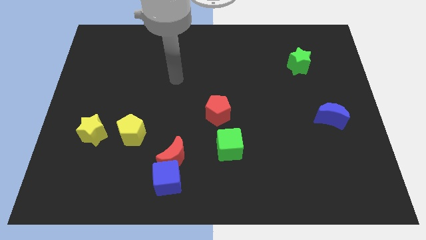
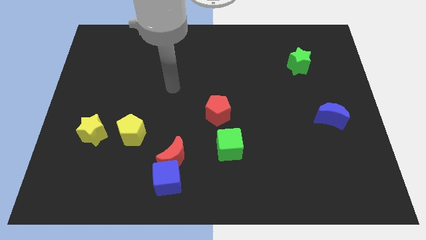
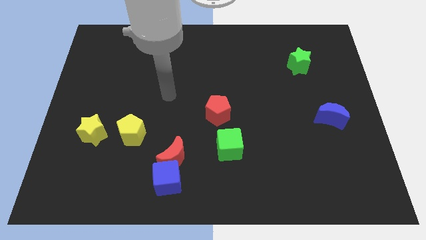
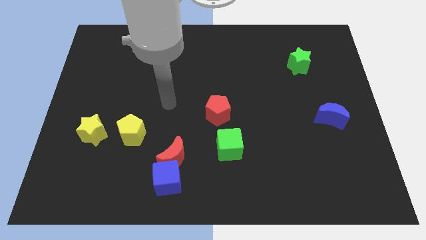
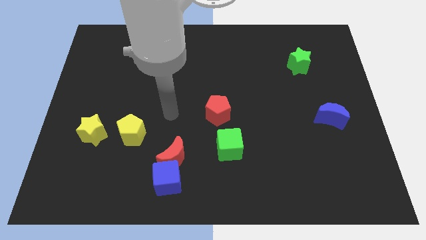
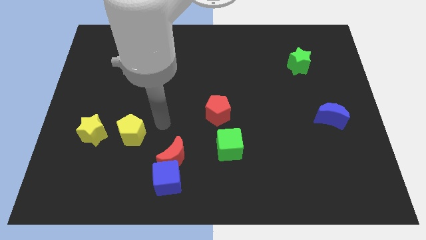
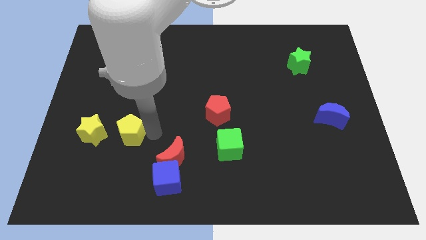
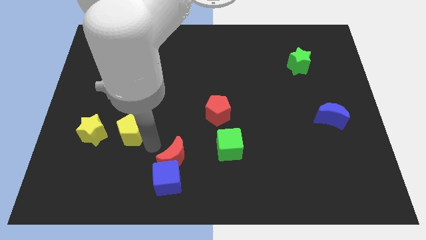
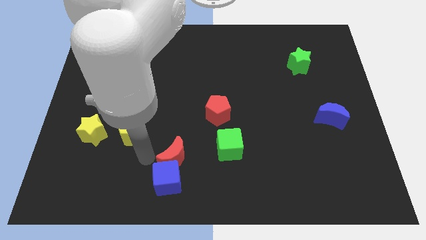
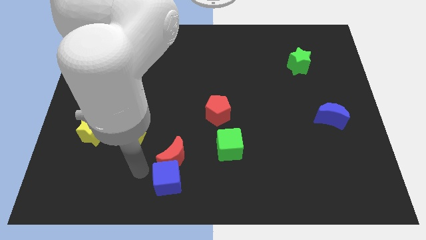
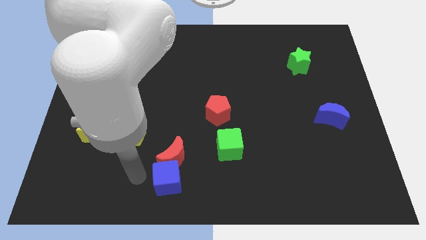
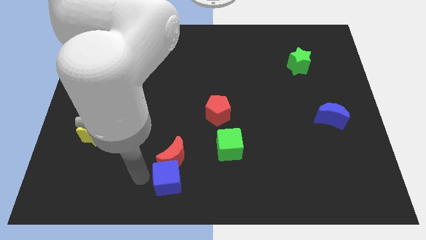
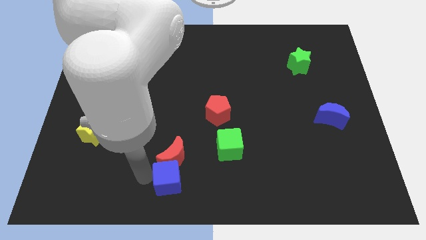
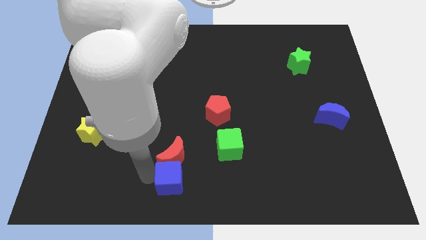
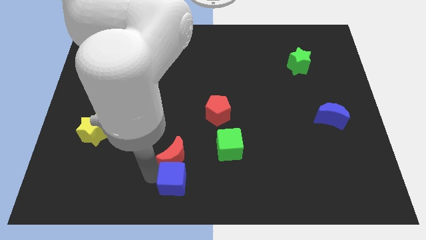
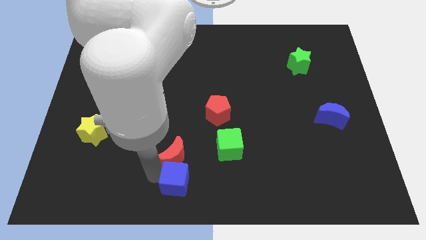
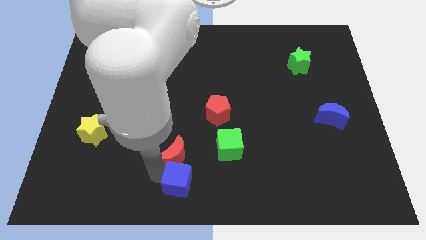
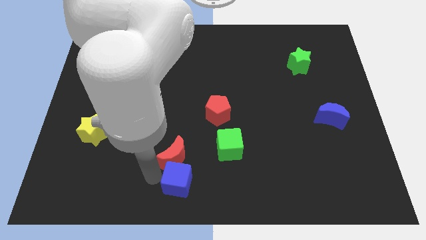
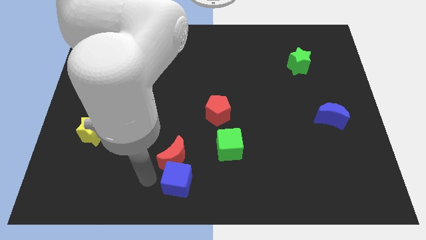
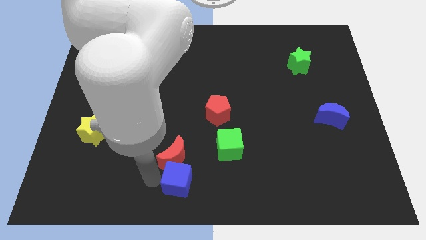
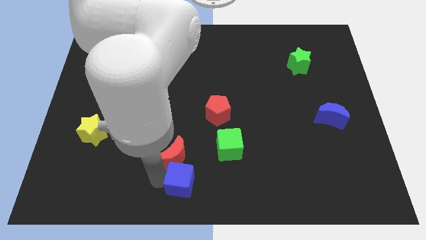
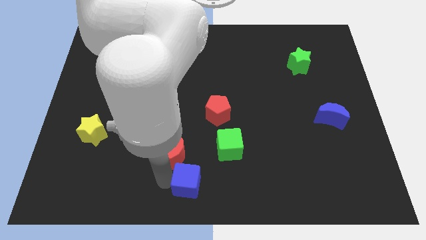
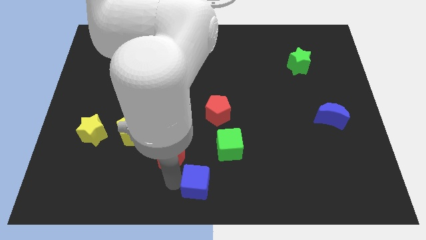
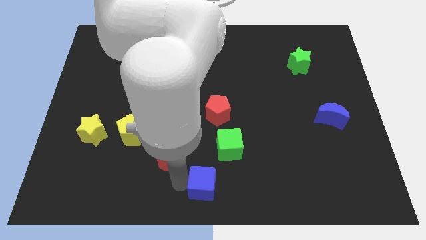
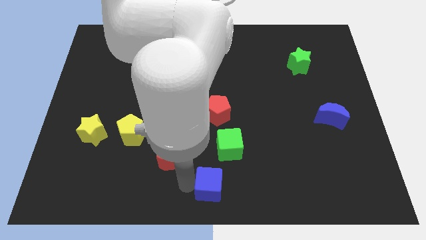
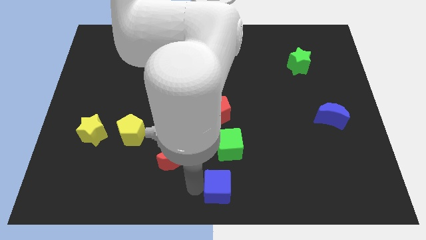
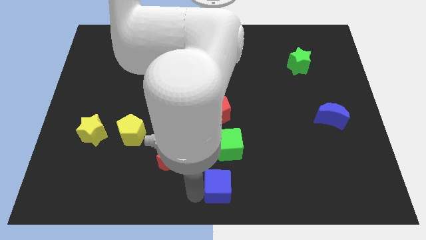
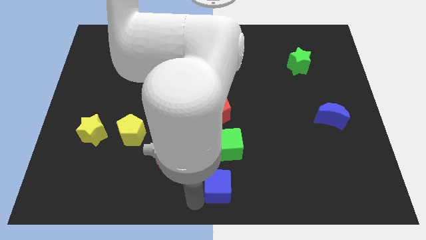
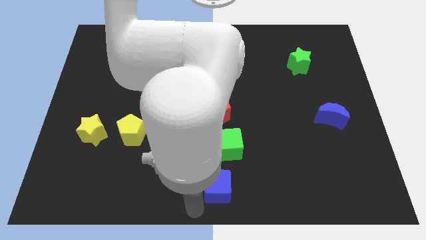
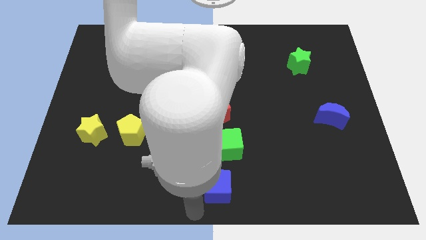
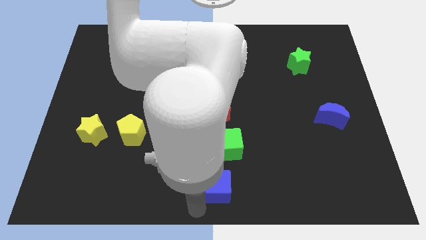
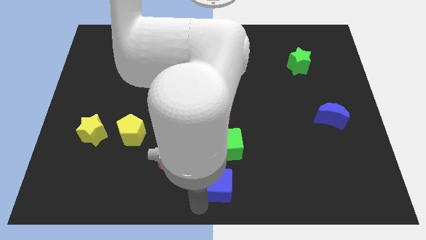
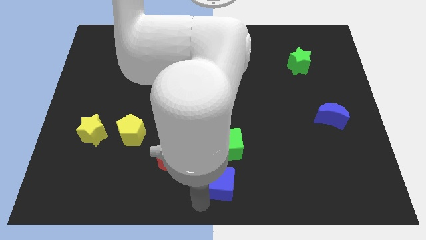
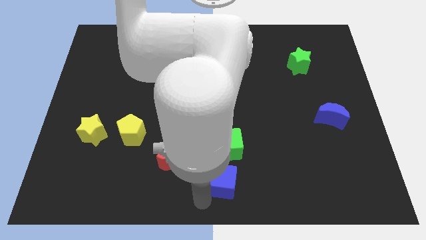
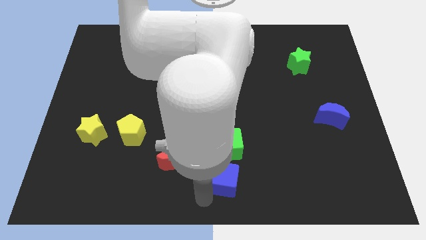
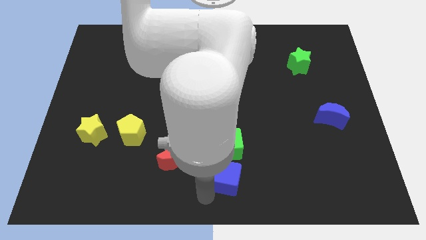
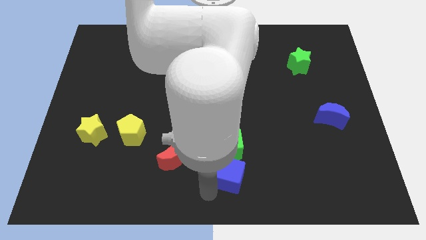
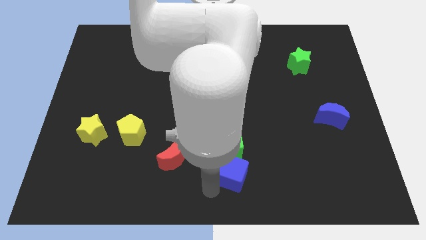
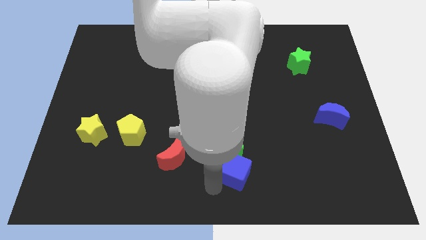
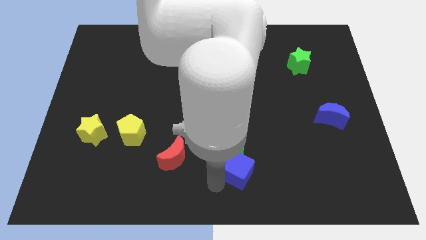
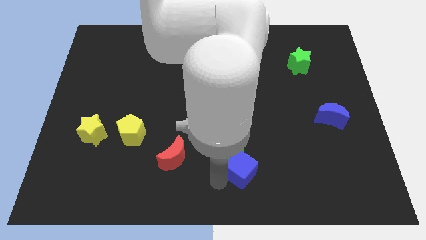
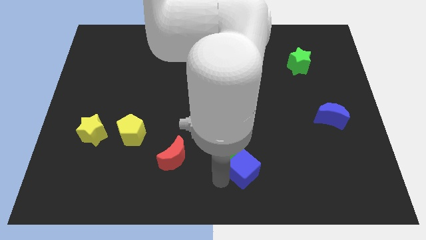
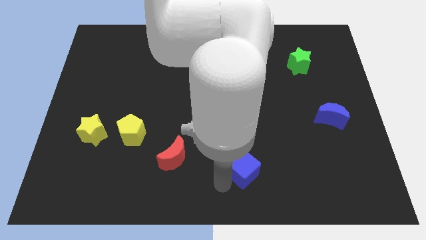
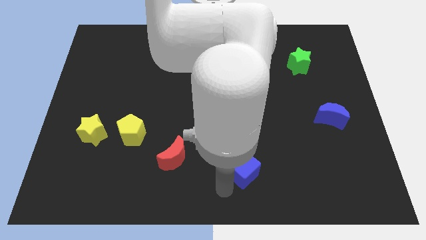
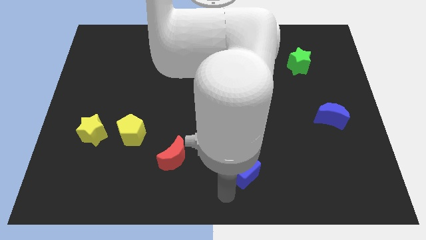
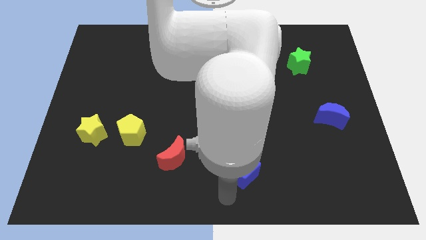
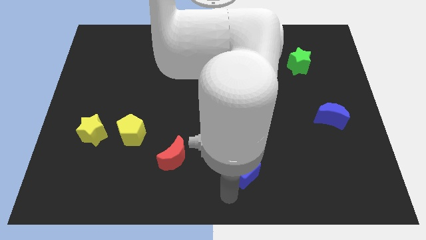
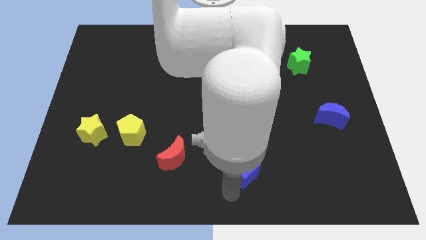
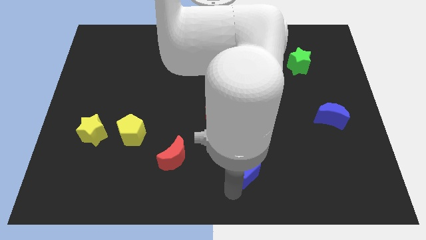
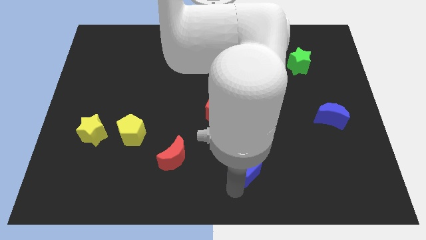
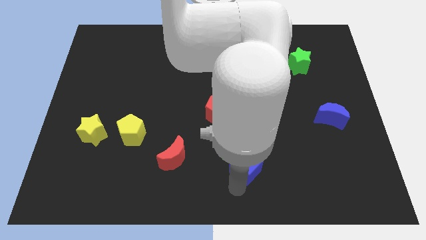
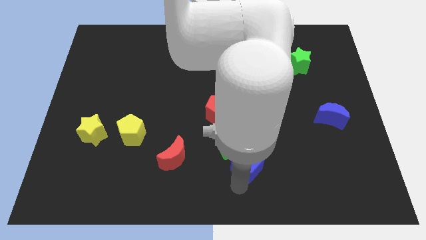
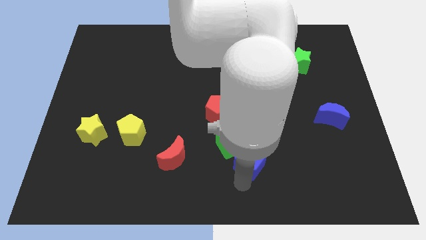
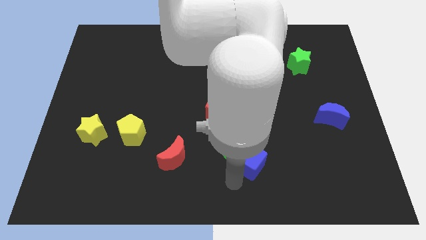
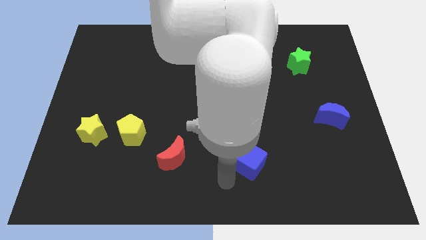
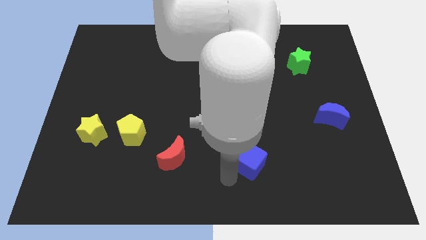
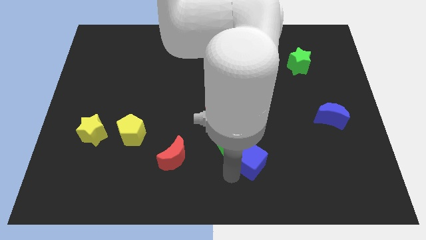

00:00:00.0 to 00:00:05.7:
slide the blue cube right of the green cube

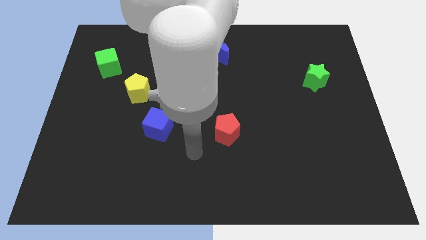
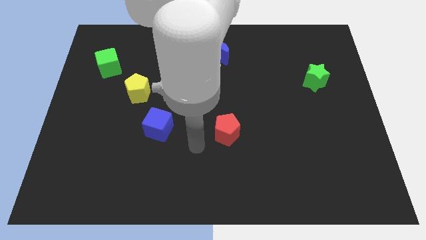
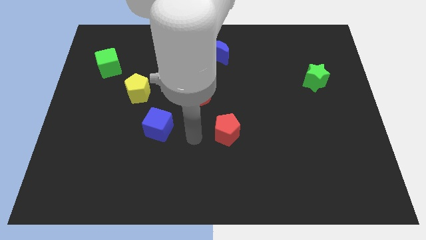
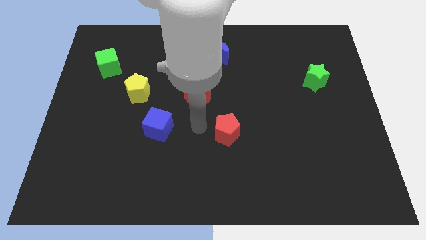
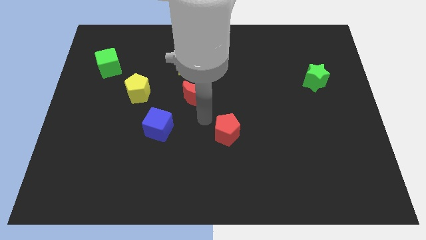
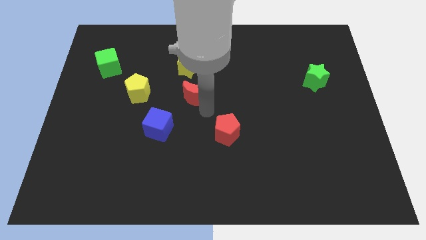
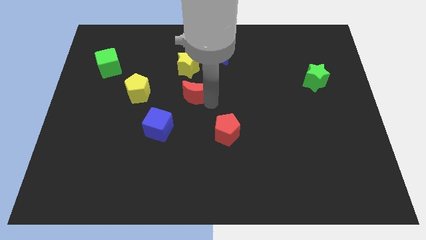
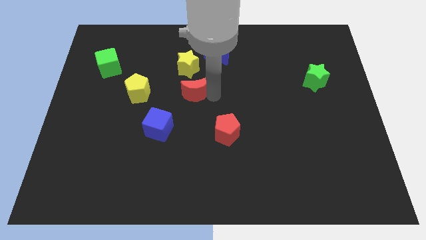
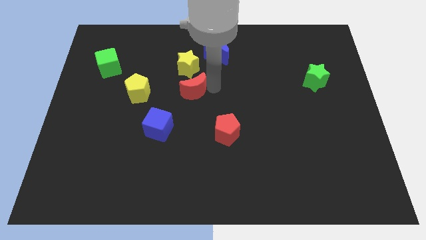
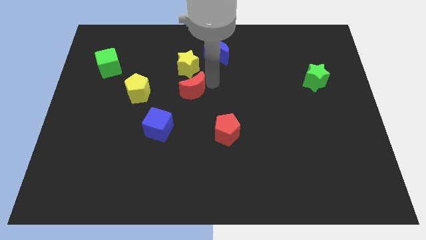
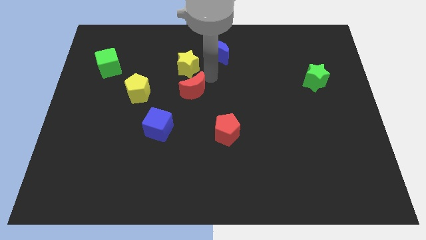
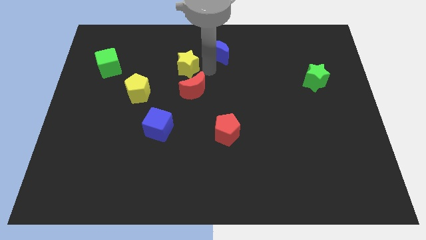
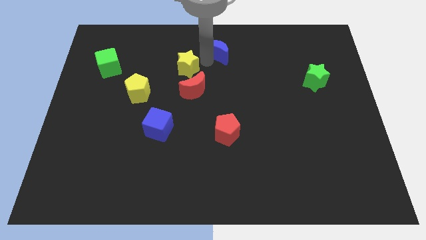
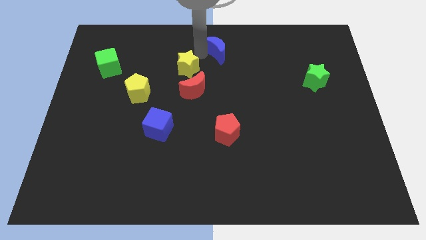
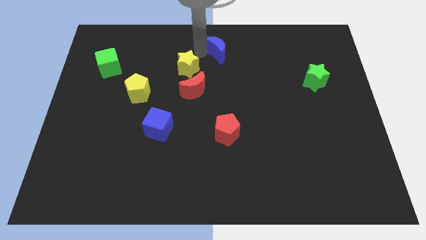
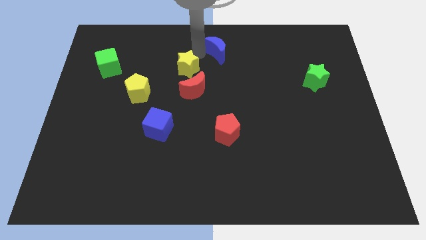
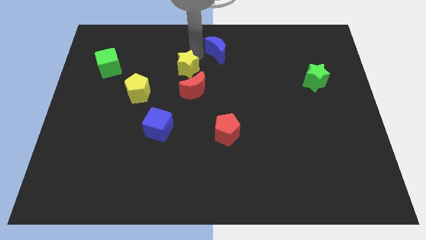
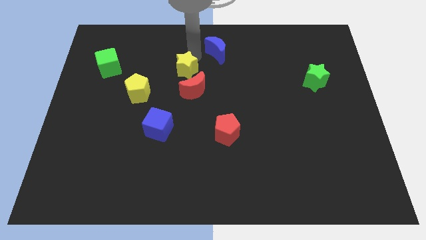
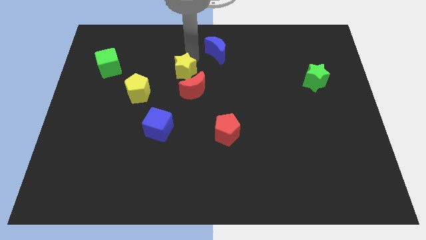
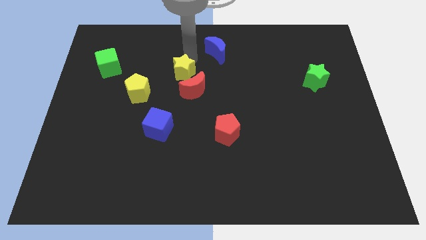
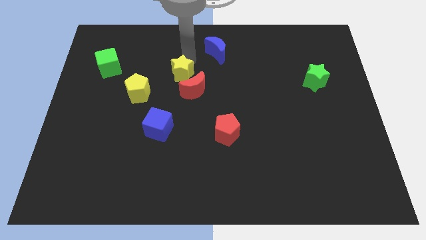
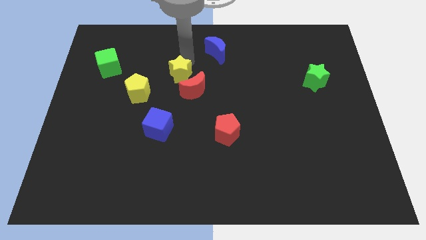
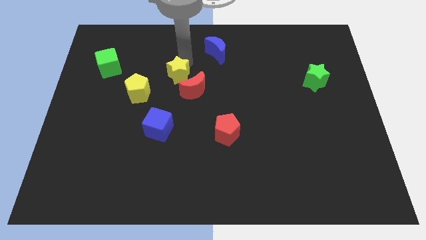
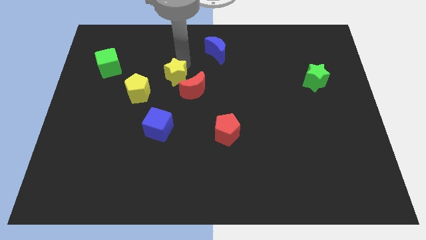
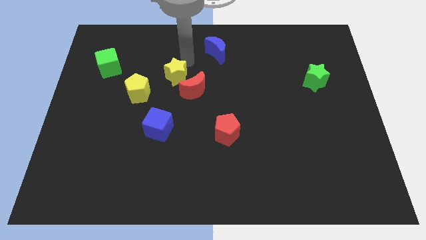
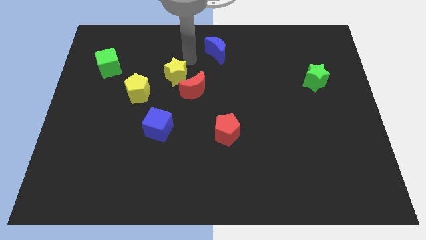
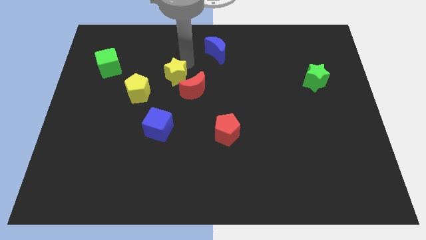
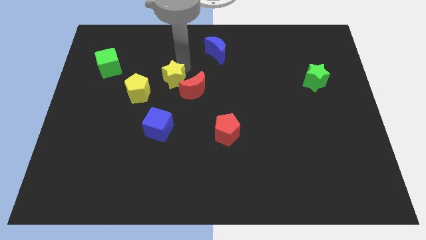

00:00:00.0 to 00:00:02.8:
put the yellow star to the top side of the blue cube
